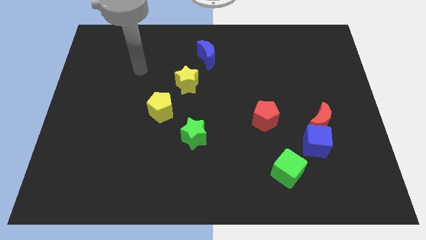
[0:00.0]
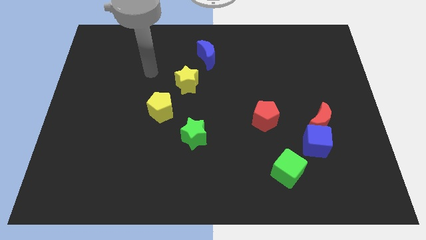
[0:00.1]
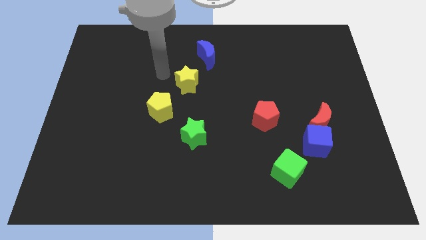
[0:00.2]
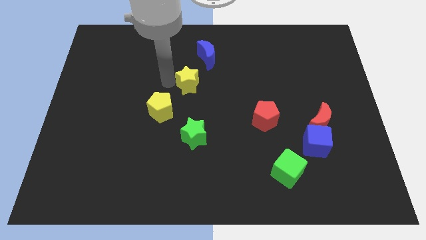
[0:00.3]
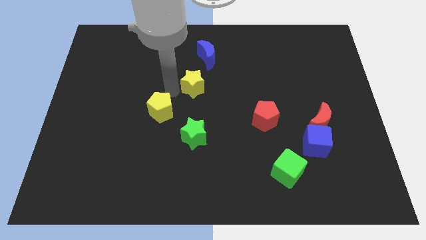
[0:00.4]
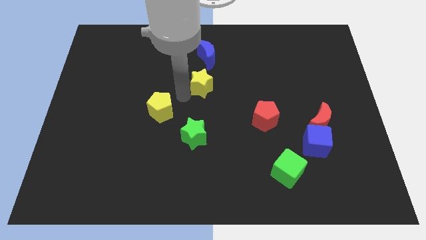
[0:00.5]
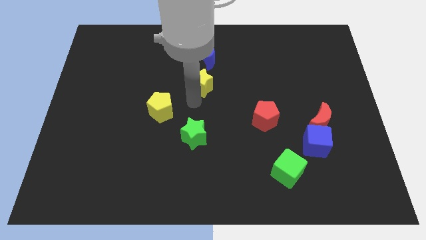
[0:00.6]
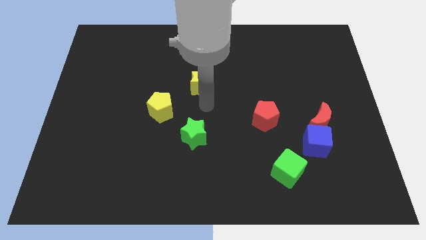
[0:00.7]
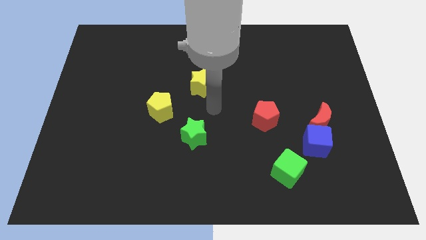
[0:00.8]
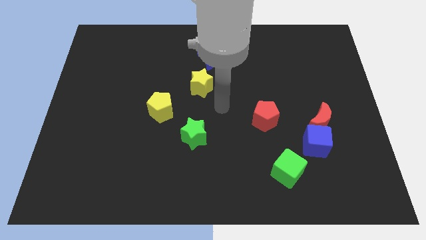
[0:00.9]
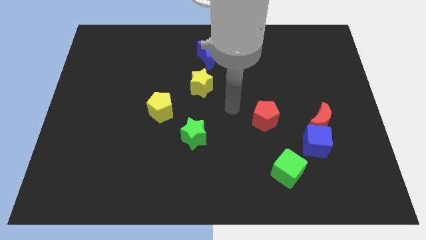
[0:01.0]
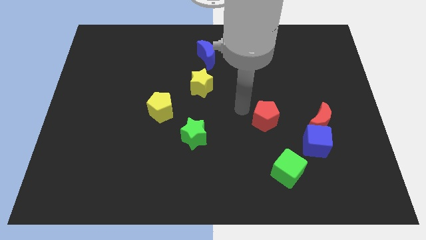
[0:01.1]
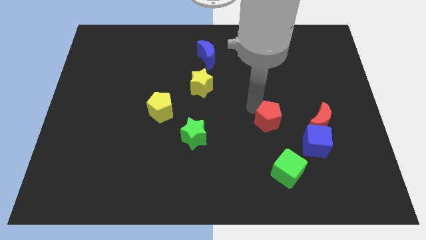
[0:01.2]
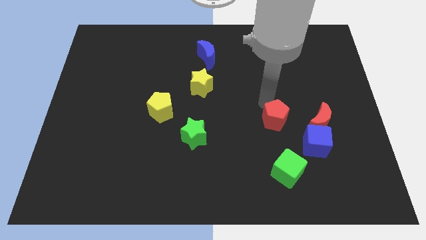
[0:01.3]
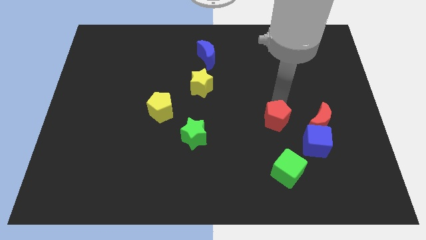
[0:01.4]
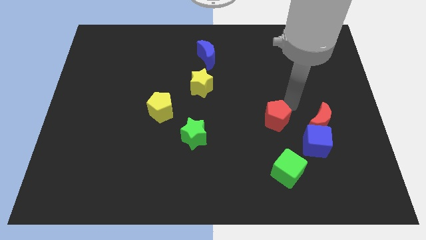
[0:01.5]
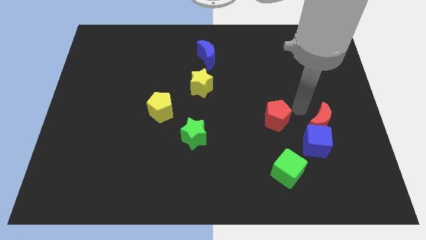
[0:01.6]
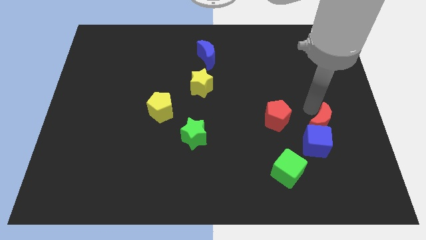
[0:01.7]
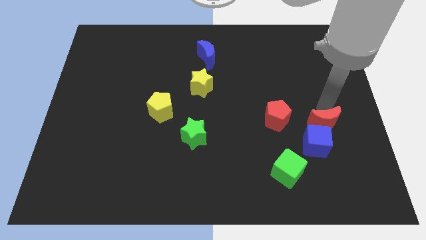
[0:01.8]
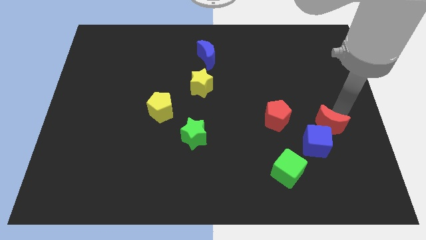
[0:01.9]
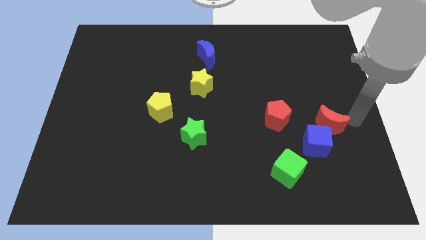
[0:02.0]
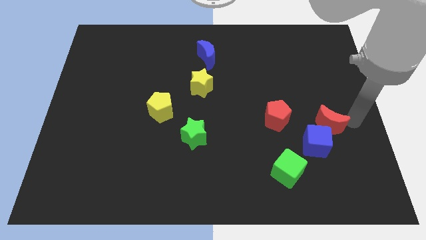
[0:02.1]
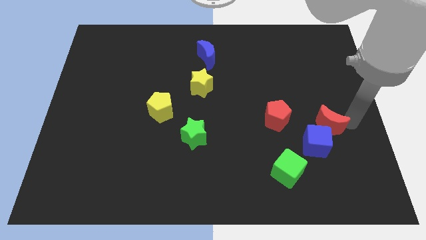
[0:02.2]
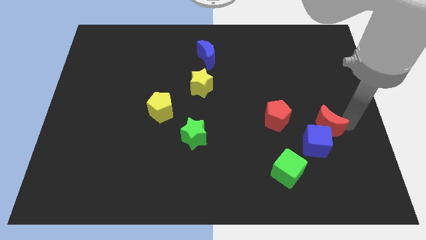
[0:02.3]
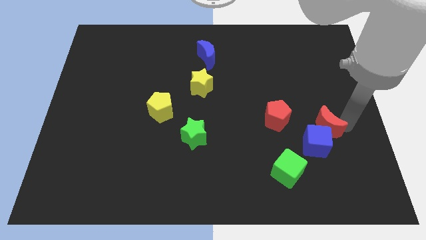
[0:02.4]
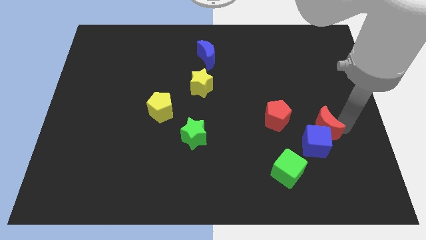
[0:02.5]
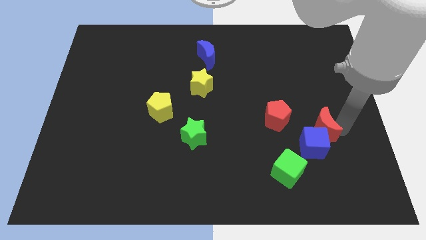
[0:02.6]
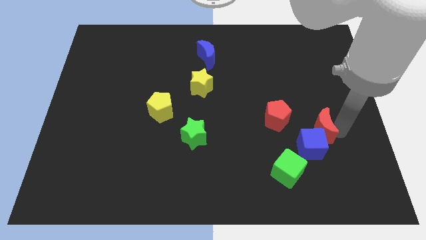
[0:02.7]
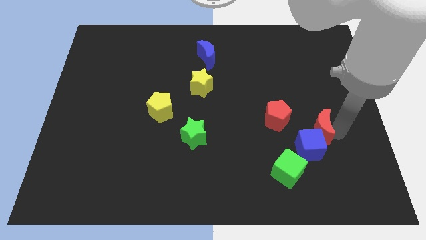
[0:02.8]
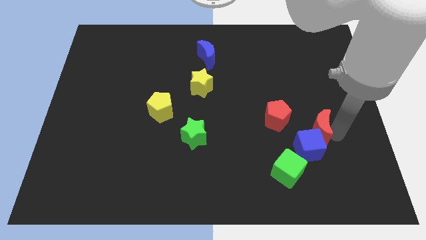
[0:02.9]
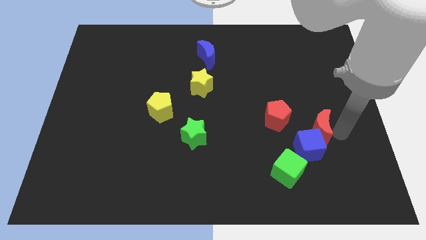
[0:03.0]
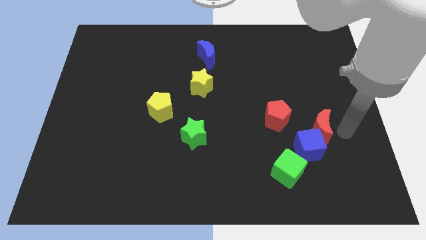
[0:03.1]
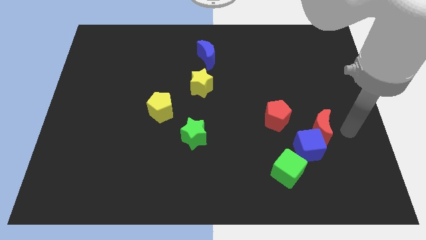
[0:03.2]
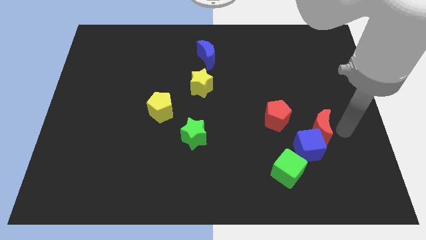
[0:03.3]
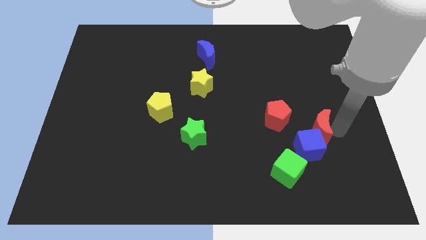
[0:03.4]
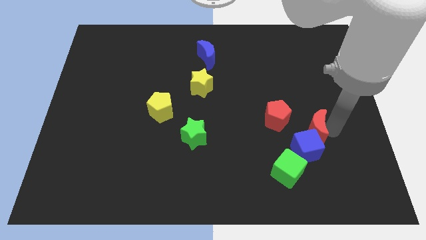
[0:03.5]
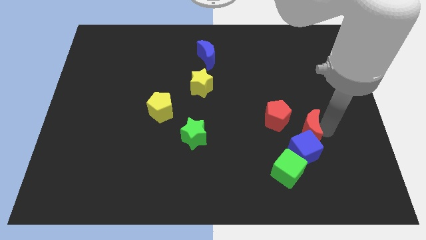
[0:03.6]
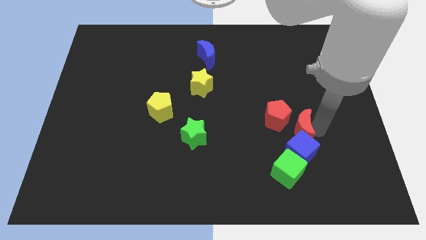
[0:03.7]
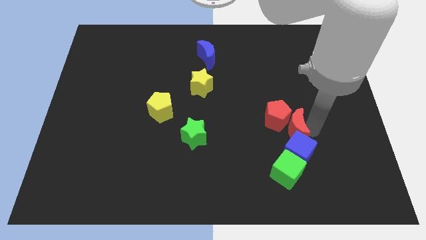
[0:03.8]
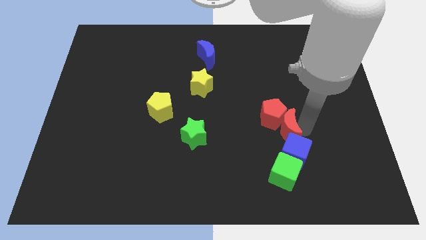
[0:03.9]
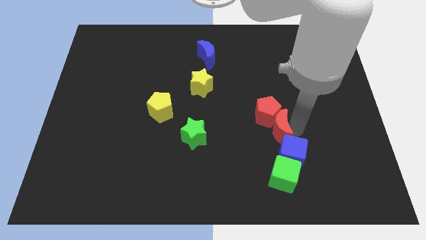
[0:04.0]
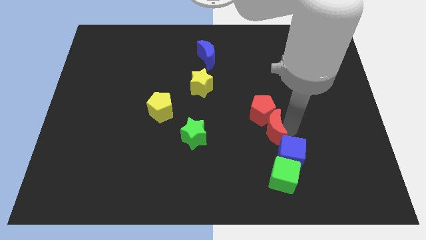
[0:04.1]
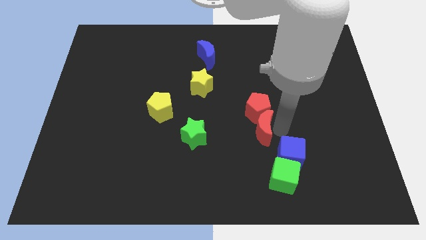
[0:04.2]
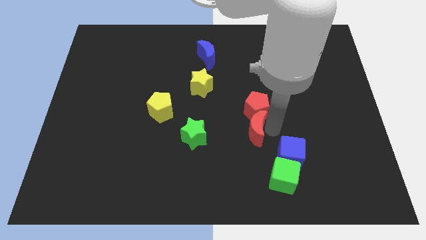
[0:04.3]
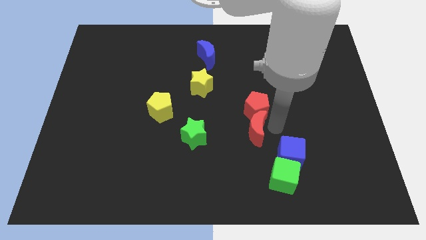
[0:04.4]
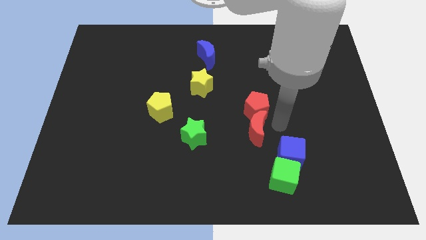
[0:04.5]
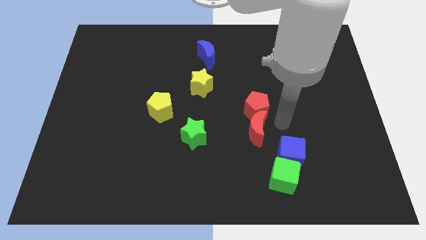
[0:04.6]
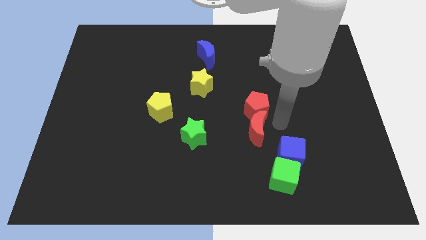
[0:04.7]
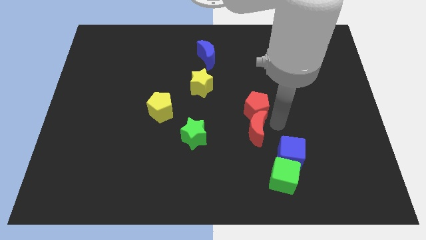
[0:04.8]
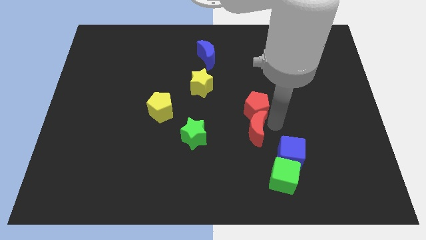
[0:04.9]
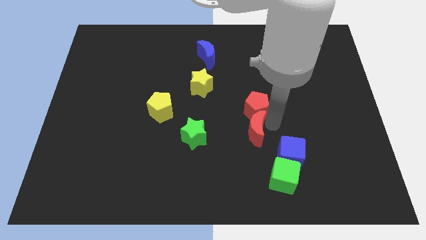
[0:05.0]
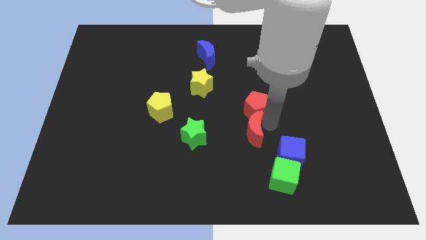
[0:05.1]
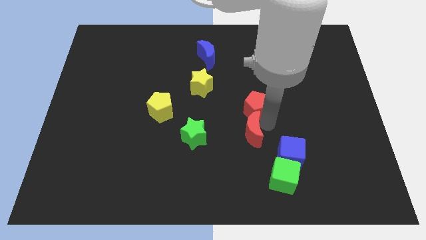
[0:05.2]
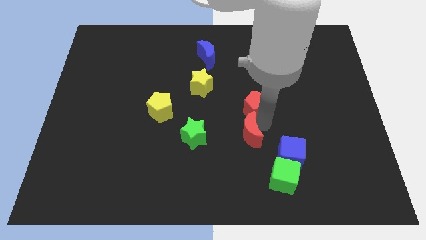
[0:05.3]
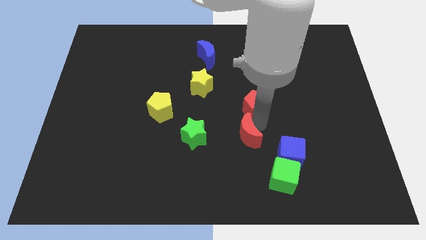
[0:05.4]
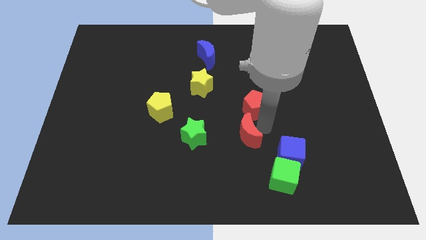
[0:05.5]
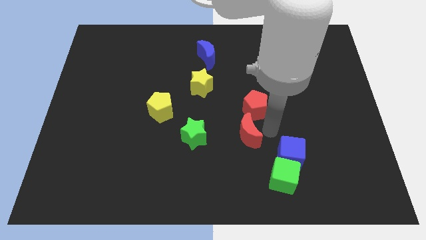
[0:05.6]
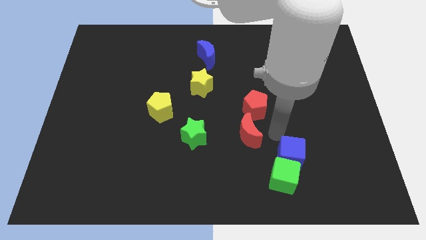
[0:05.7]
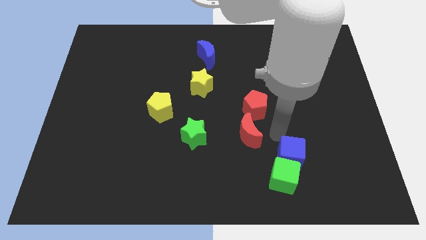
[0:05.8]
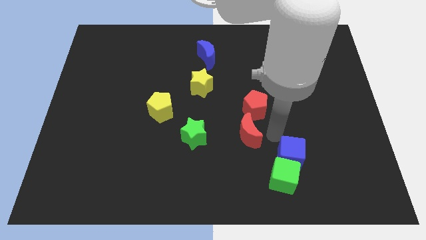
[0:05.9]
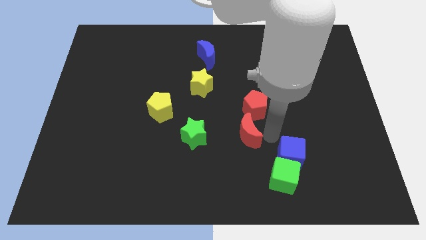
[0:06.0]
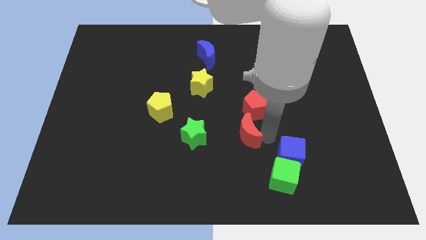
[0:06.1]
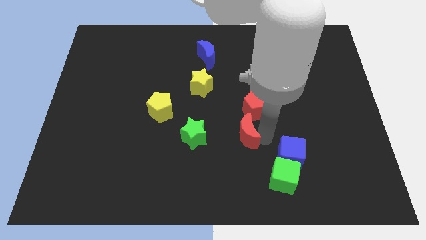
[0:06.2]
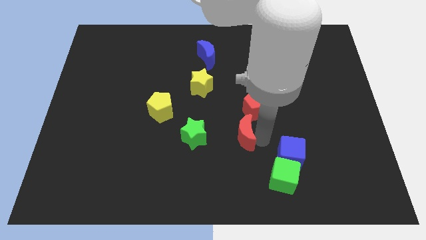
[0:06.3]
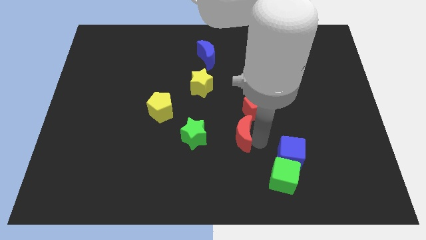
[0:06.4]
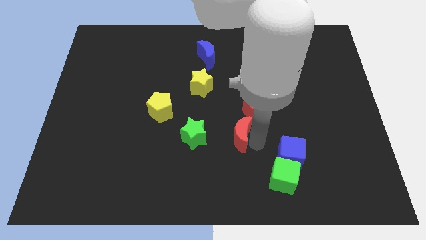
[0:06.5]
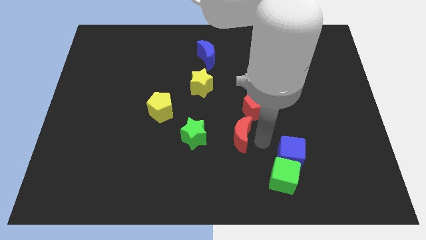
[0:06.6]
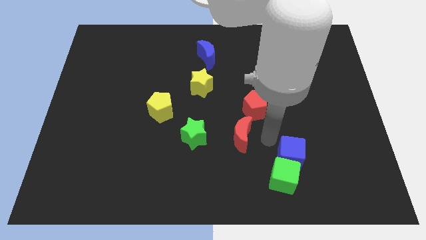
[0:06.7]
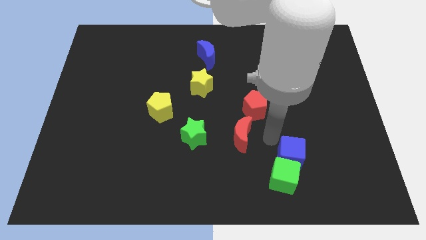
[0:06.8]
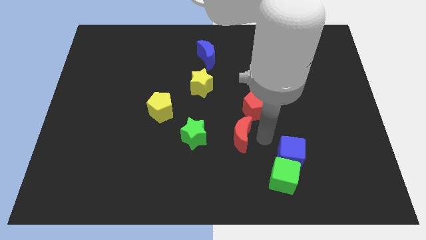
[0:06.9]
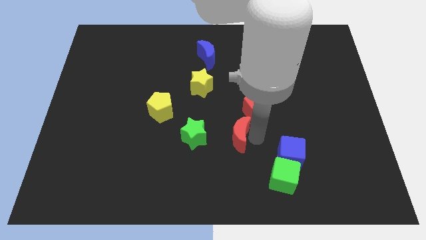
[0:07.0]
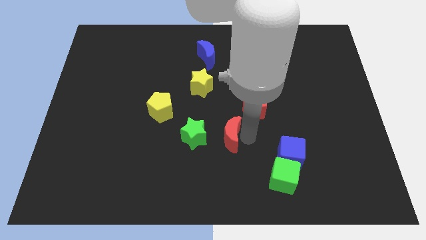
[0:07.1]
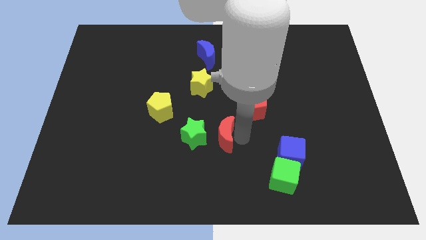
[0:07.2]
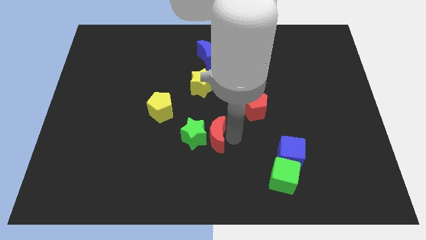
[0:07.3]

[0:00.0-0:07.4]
slide the red moon close to the green star
